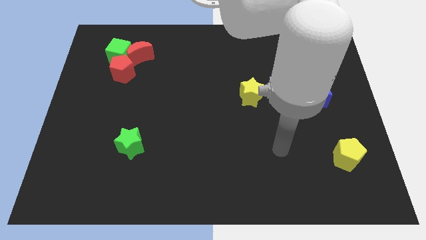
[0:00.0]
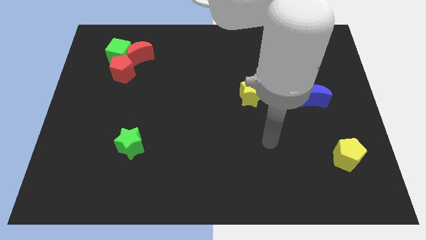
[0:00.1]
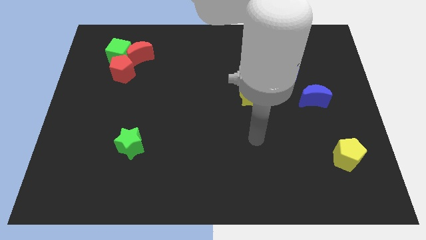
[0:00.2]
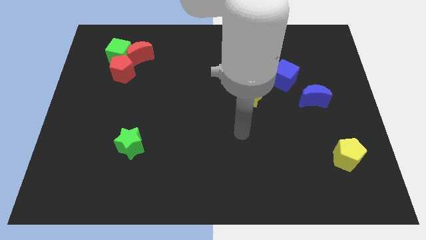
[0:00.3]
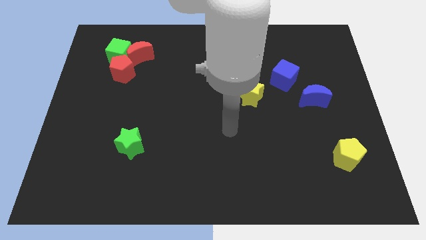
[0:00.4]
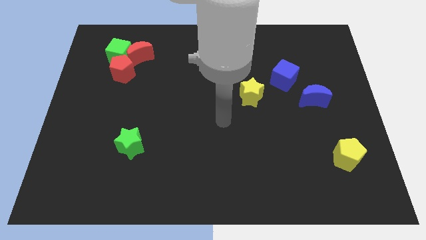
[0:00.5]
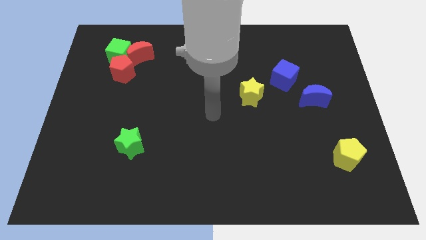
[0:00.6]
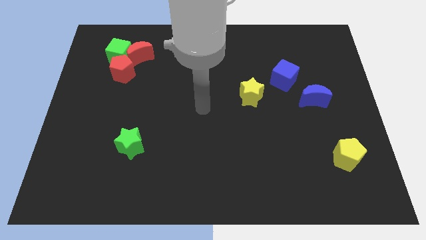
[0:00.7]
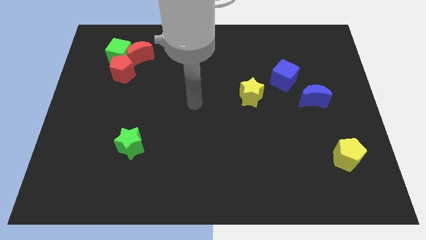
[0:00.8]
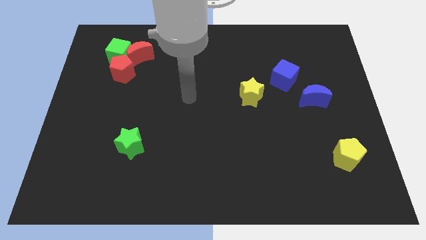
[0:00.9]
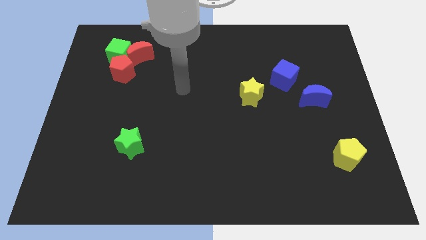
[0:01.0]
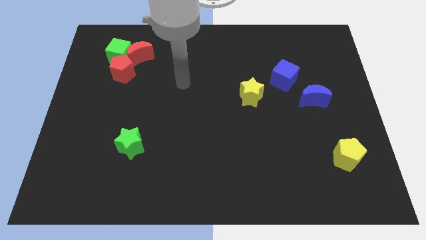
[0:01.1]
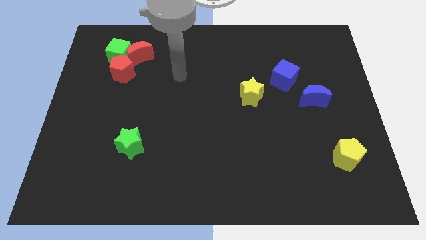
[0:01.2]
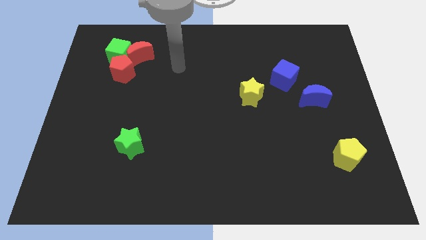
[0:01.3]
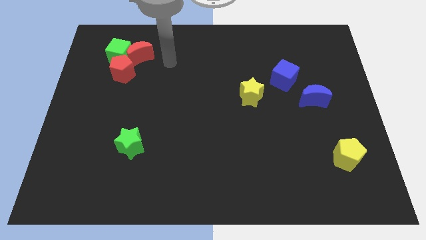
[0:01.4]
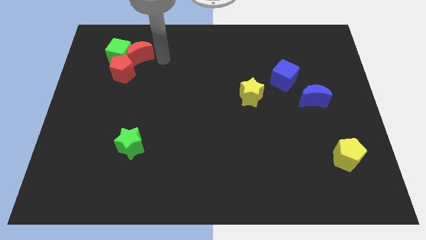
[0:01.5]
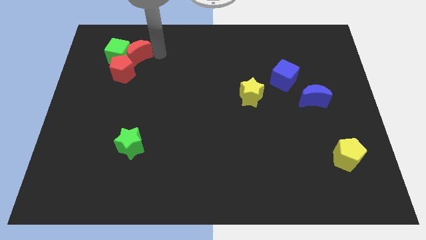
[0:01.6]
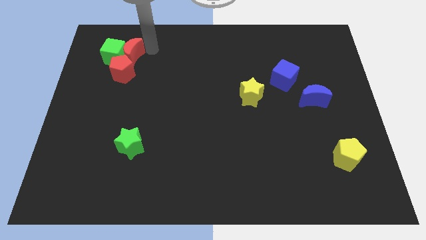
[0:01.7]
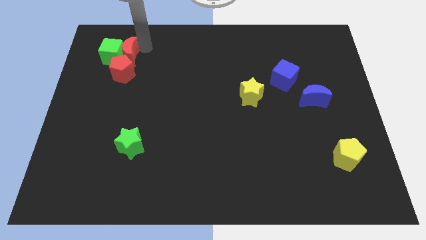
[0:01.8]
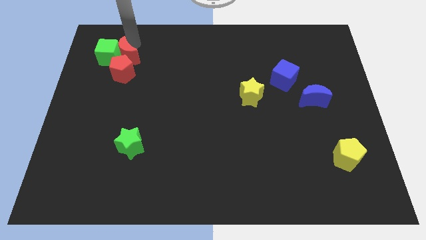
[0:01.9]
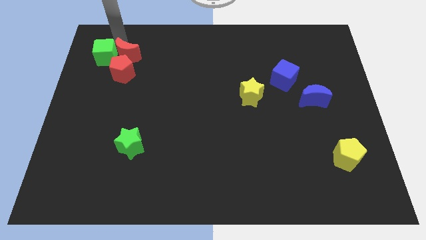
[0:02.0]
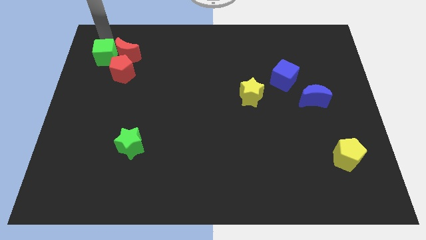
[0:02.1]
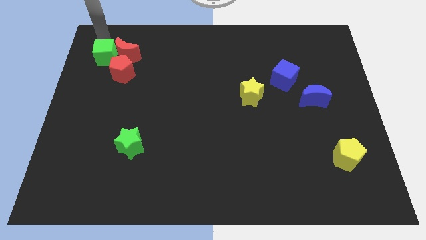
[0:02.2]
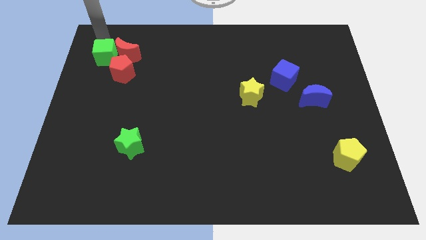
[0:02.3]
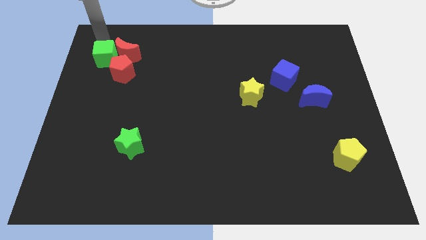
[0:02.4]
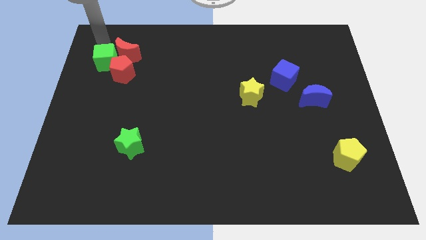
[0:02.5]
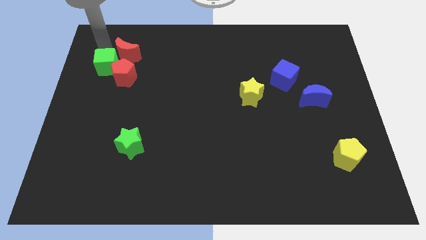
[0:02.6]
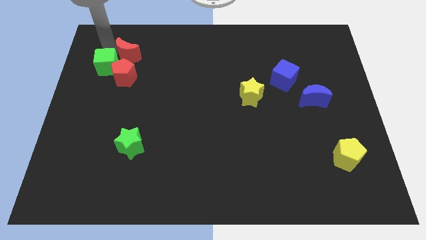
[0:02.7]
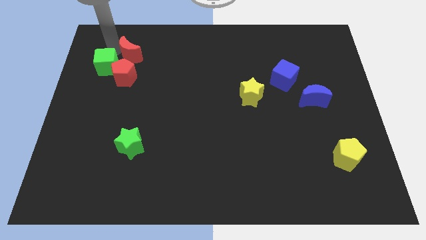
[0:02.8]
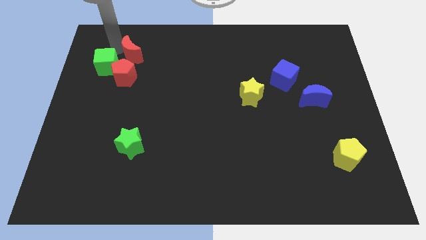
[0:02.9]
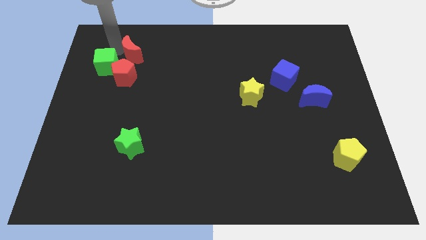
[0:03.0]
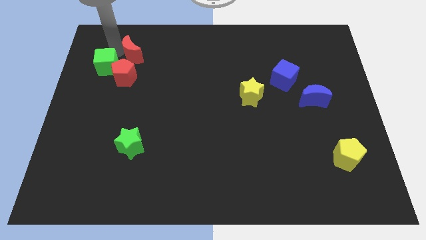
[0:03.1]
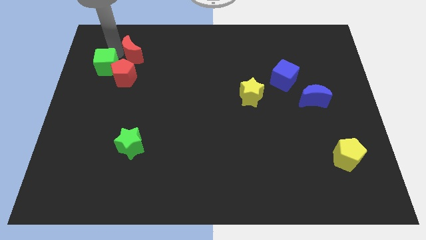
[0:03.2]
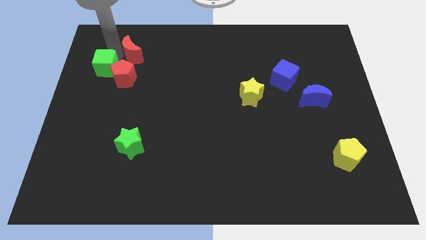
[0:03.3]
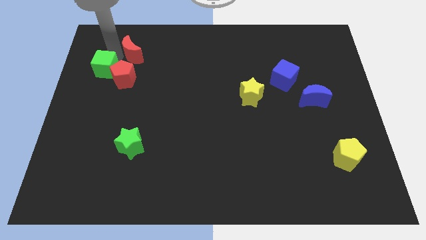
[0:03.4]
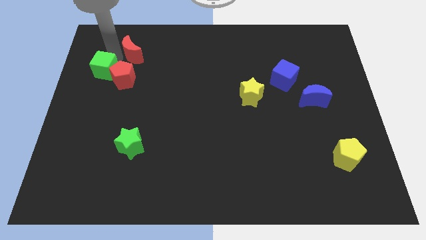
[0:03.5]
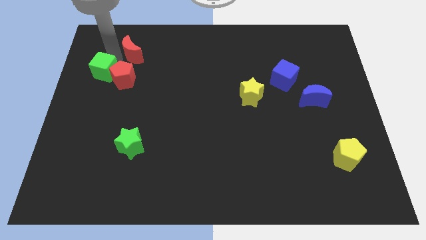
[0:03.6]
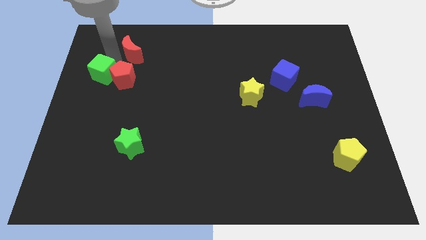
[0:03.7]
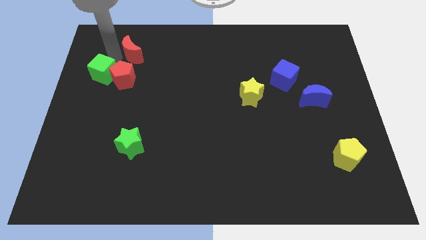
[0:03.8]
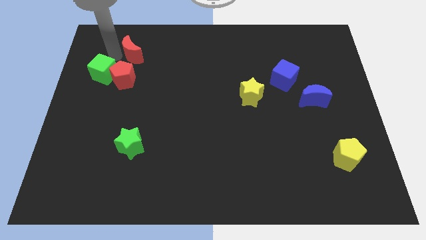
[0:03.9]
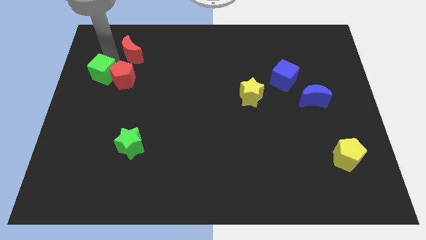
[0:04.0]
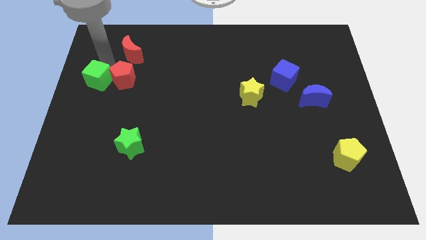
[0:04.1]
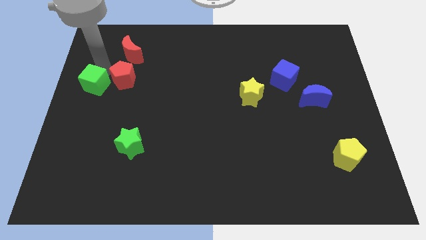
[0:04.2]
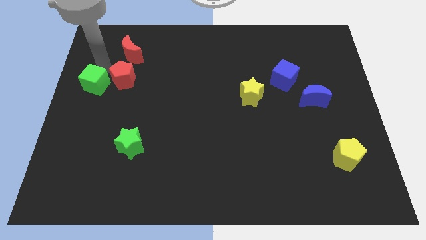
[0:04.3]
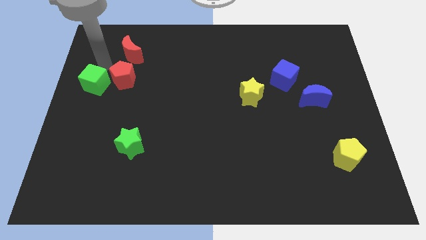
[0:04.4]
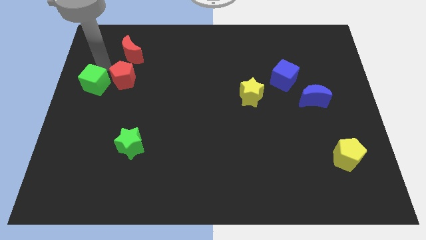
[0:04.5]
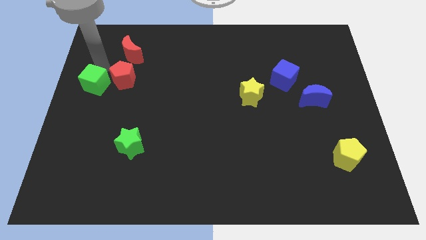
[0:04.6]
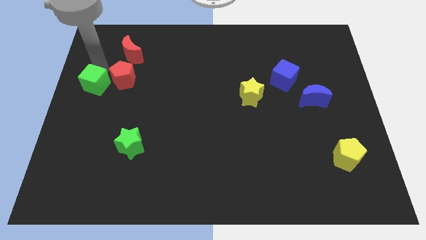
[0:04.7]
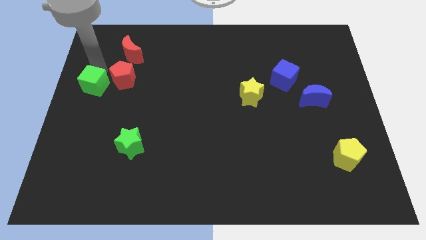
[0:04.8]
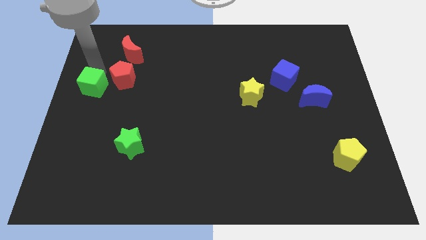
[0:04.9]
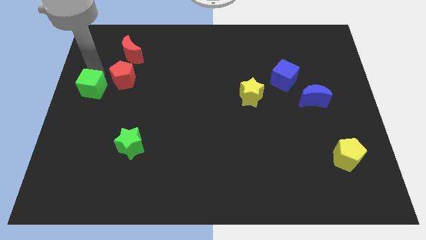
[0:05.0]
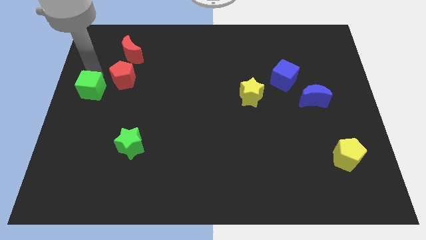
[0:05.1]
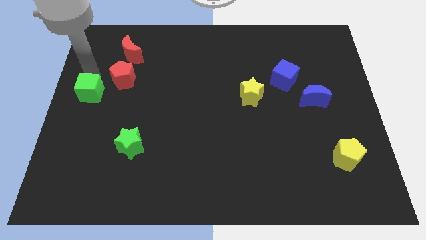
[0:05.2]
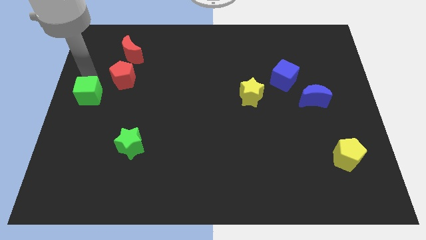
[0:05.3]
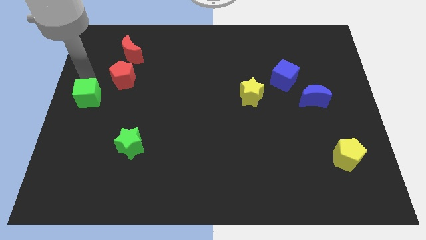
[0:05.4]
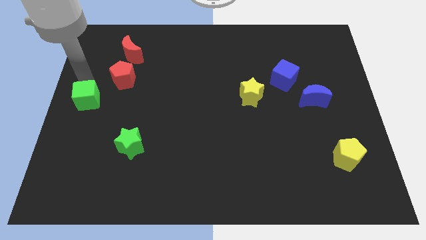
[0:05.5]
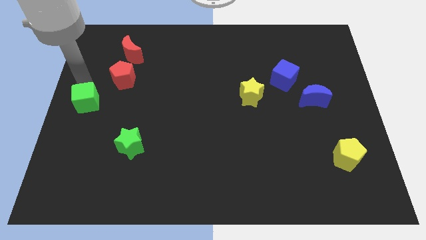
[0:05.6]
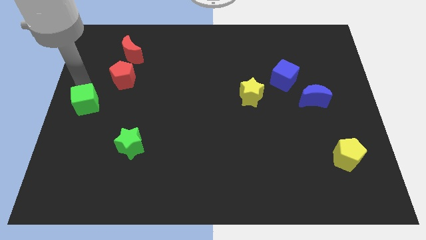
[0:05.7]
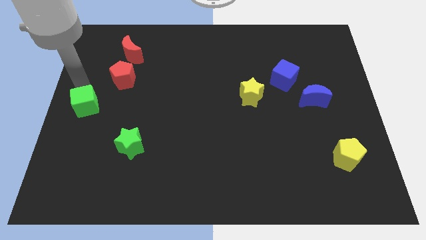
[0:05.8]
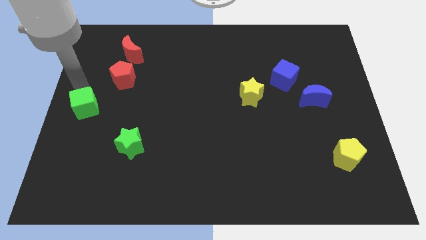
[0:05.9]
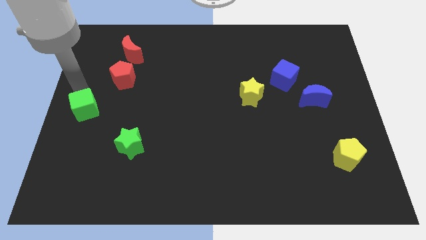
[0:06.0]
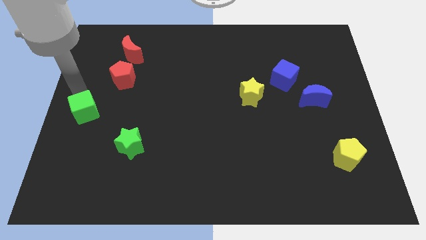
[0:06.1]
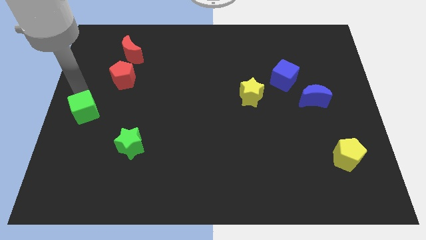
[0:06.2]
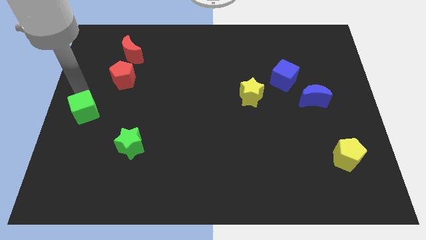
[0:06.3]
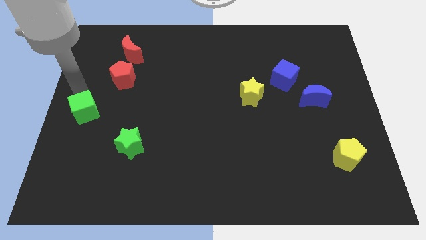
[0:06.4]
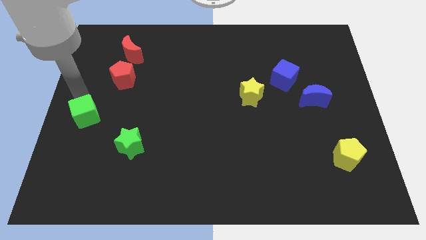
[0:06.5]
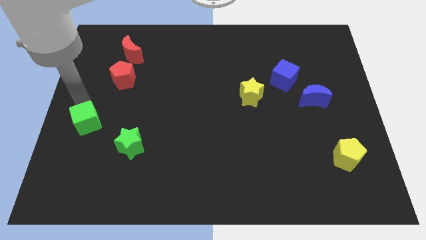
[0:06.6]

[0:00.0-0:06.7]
move the green cube down

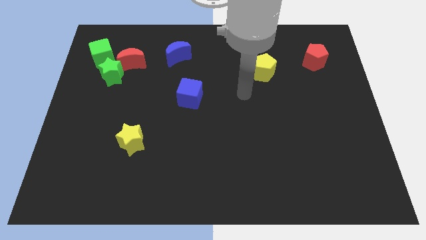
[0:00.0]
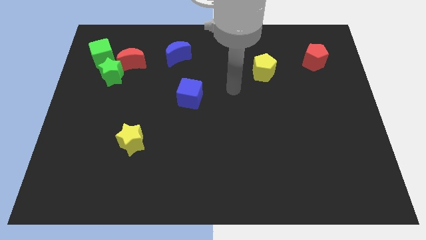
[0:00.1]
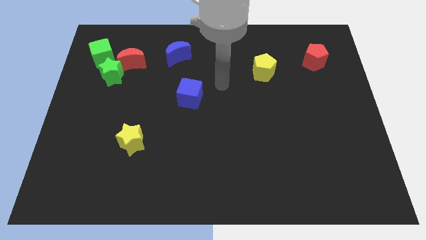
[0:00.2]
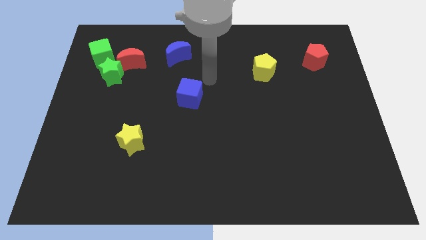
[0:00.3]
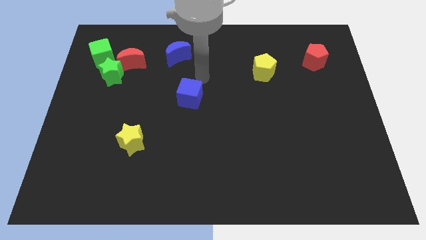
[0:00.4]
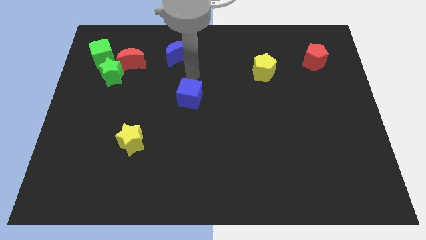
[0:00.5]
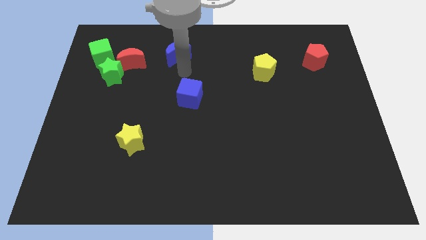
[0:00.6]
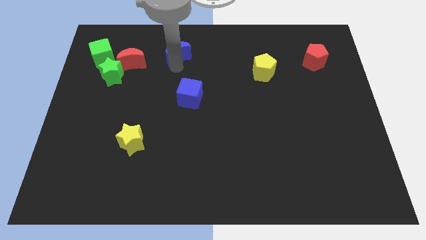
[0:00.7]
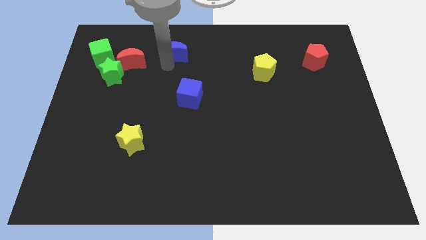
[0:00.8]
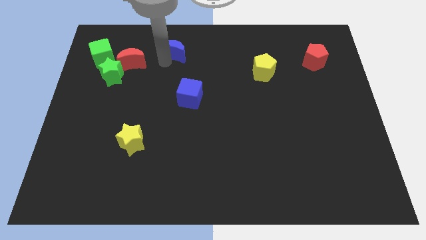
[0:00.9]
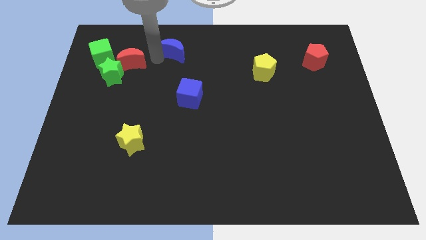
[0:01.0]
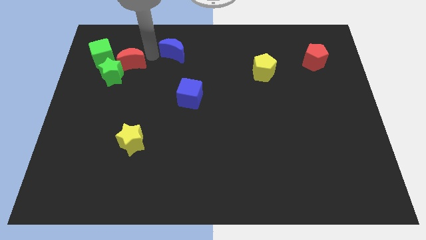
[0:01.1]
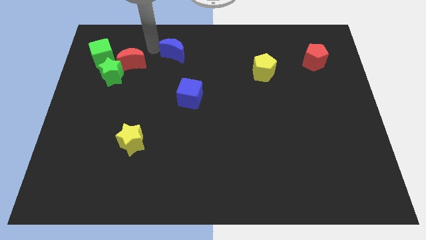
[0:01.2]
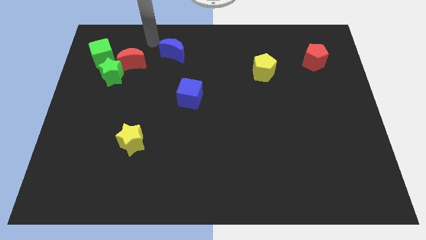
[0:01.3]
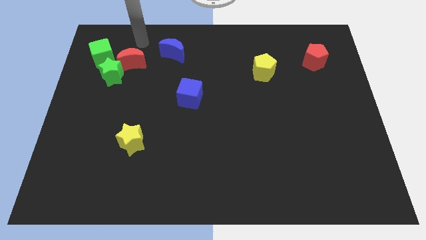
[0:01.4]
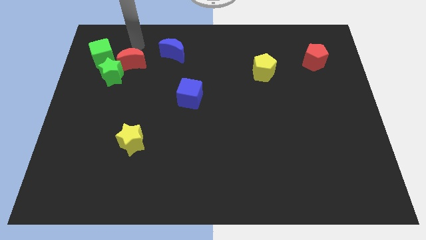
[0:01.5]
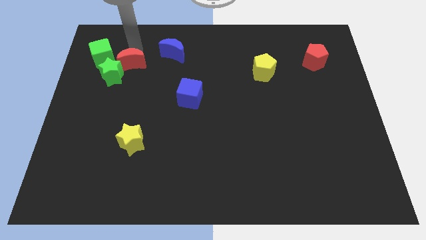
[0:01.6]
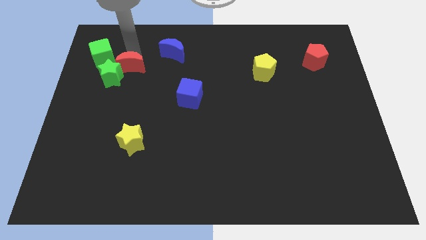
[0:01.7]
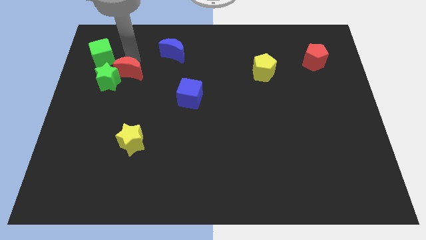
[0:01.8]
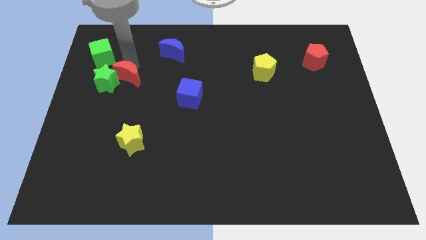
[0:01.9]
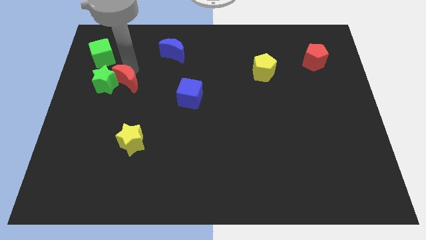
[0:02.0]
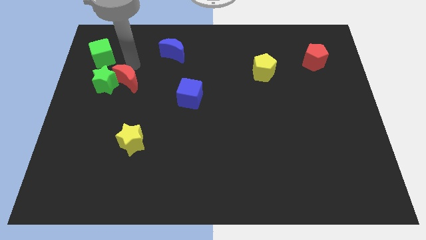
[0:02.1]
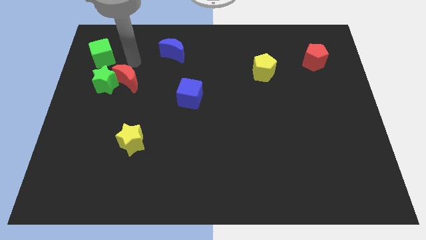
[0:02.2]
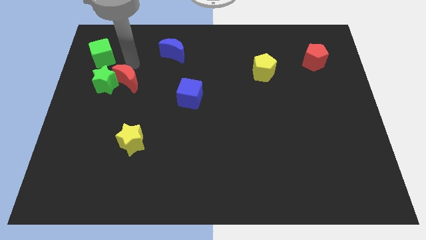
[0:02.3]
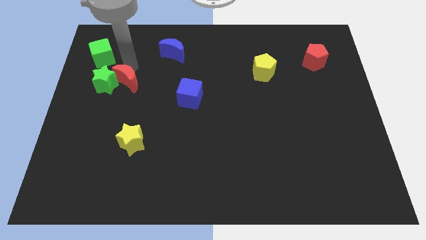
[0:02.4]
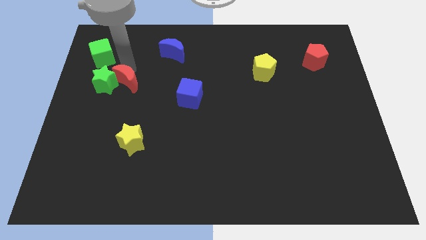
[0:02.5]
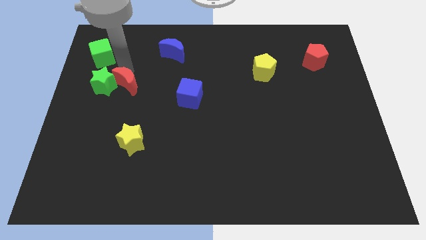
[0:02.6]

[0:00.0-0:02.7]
slightly move the red moon downwards
